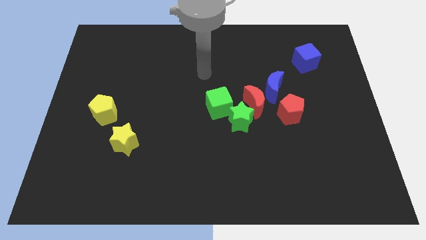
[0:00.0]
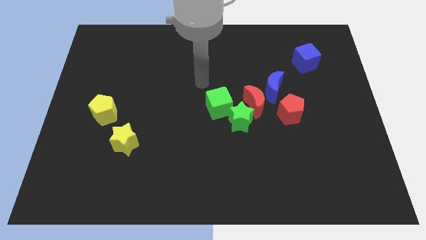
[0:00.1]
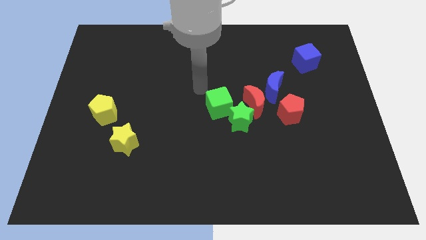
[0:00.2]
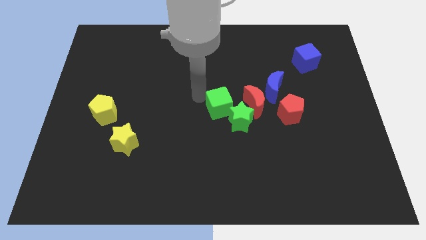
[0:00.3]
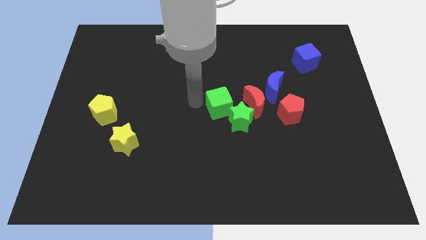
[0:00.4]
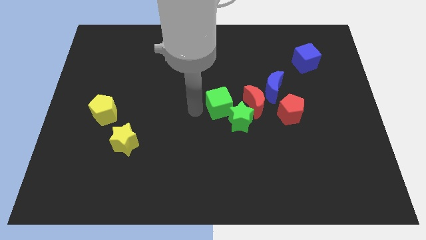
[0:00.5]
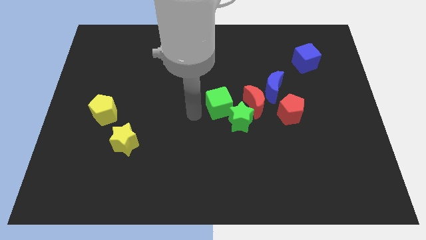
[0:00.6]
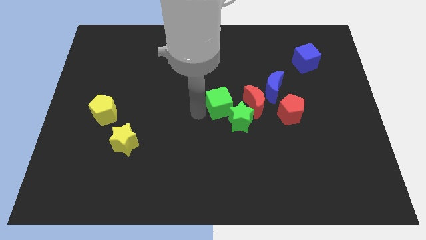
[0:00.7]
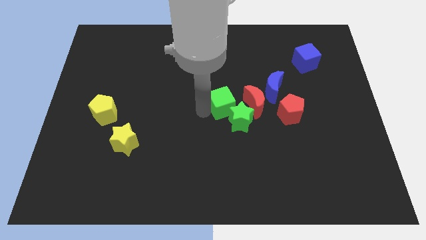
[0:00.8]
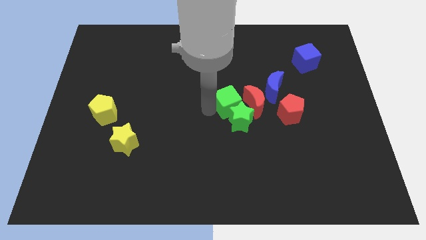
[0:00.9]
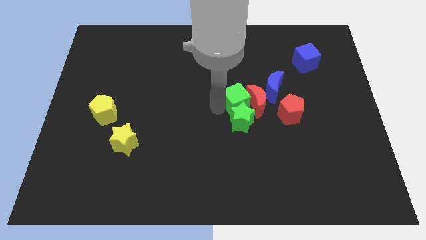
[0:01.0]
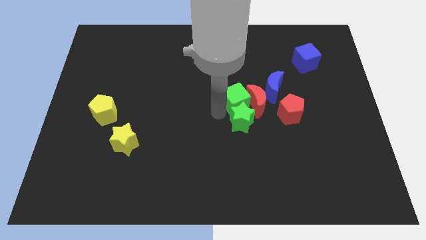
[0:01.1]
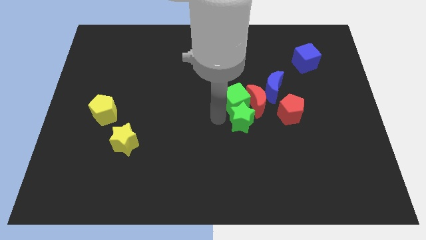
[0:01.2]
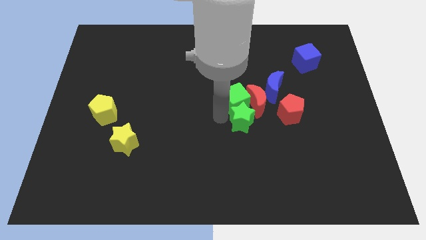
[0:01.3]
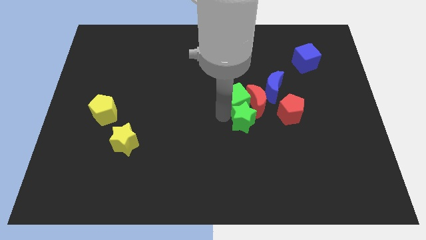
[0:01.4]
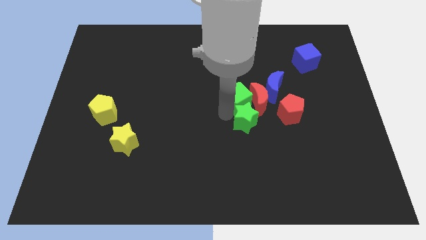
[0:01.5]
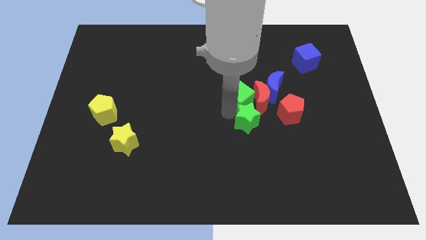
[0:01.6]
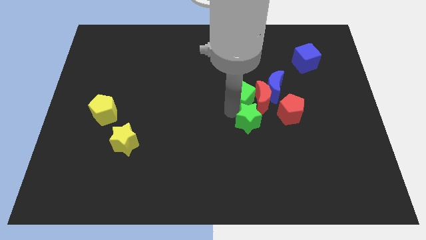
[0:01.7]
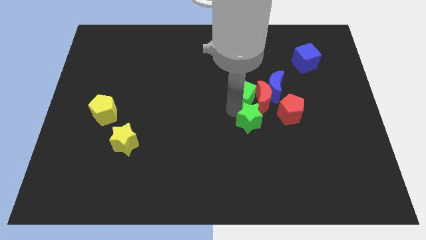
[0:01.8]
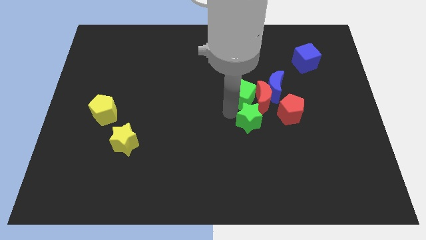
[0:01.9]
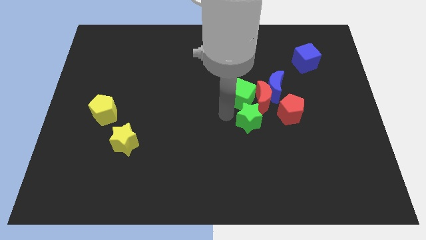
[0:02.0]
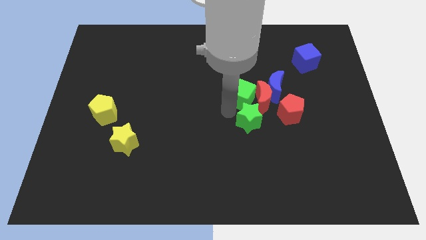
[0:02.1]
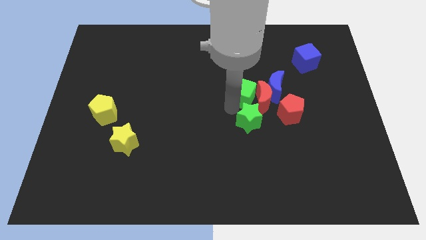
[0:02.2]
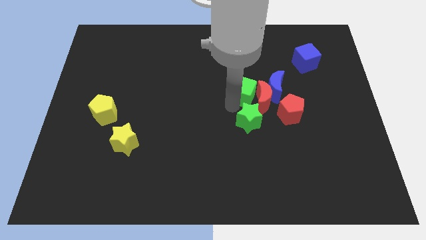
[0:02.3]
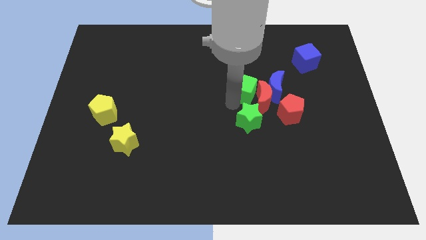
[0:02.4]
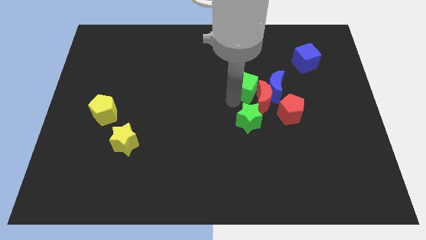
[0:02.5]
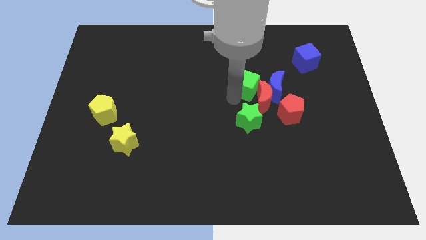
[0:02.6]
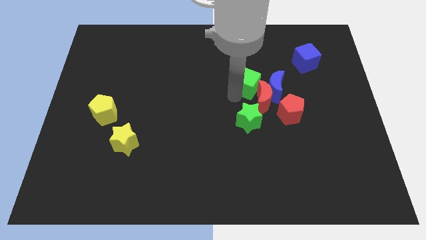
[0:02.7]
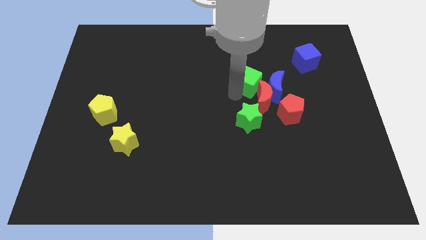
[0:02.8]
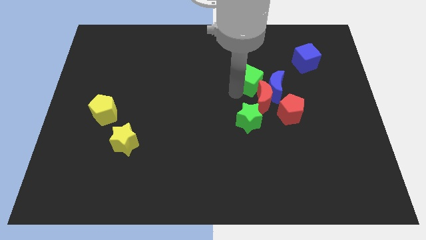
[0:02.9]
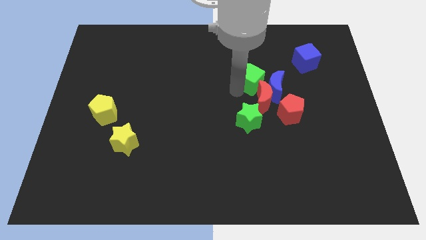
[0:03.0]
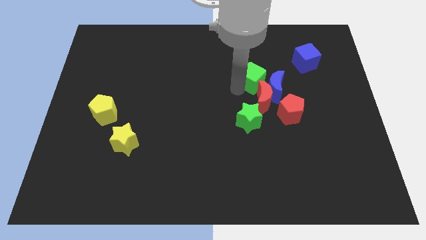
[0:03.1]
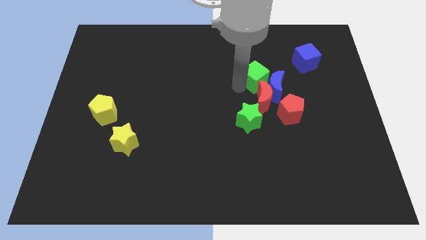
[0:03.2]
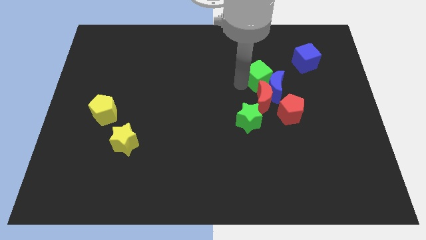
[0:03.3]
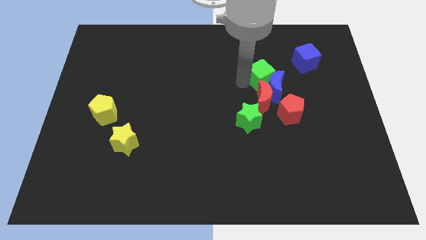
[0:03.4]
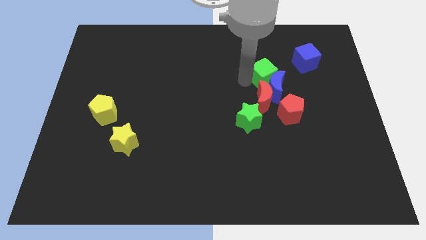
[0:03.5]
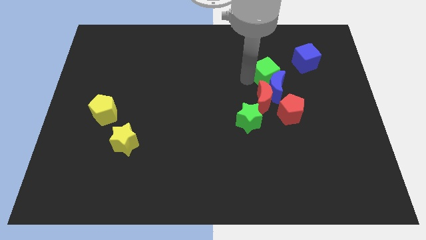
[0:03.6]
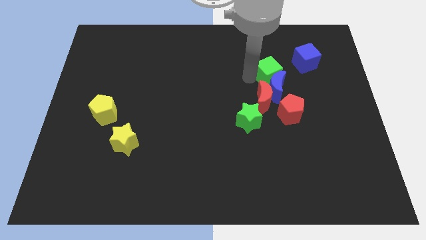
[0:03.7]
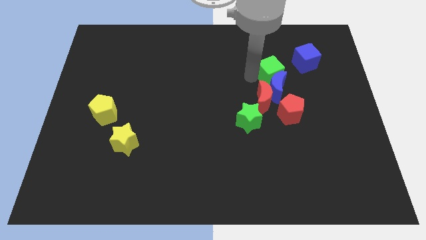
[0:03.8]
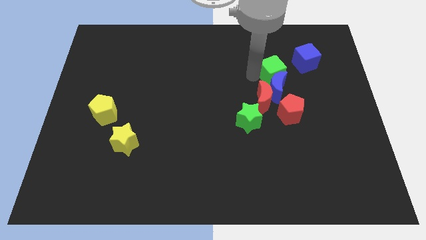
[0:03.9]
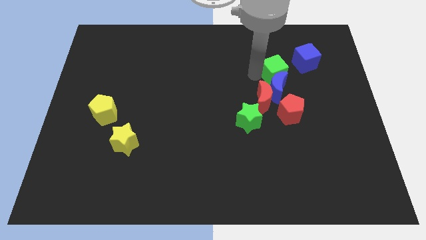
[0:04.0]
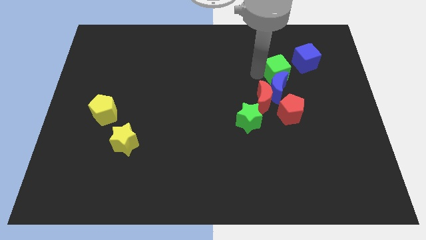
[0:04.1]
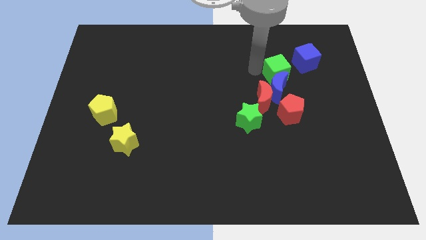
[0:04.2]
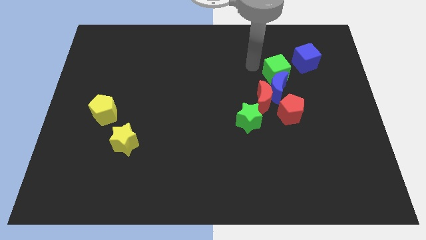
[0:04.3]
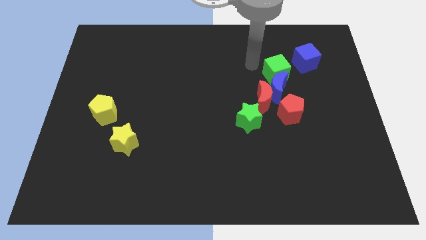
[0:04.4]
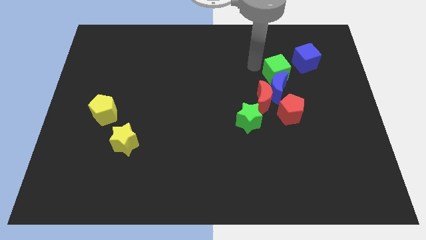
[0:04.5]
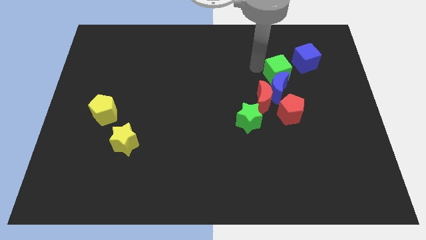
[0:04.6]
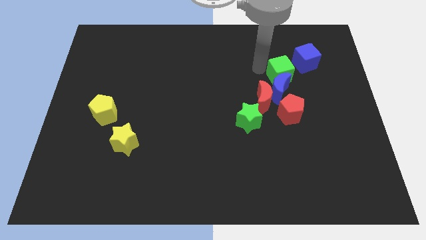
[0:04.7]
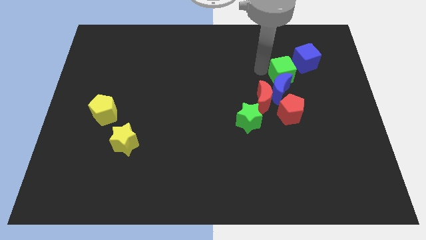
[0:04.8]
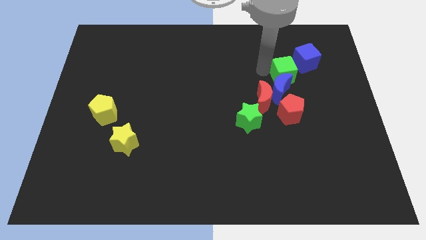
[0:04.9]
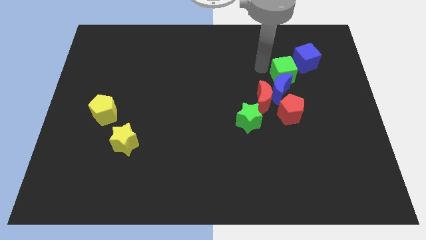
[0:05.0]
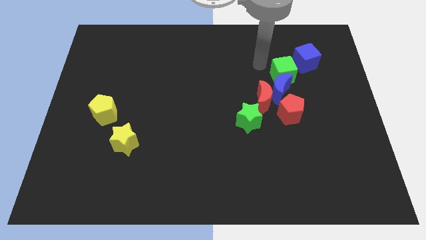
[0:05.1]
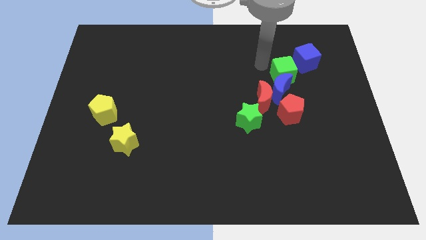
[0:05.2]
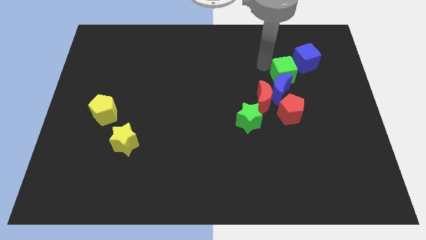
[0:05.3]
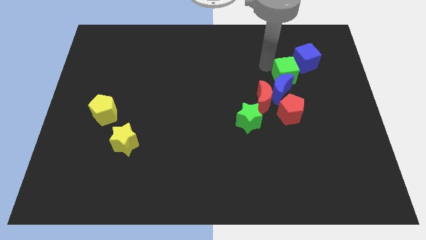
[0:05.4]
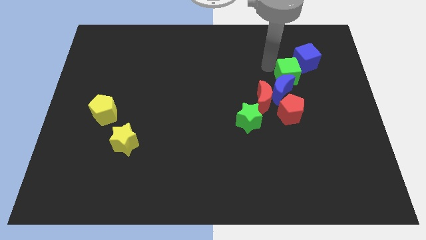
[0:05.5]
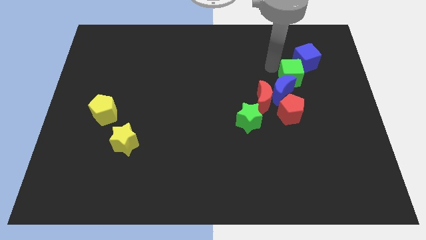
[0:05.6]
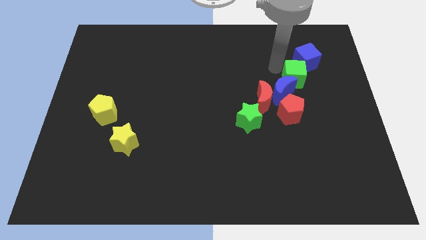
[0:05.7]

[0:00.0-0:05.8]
slide the green cube to the right side of the blue moon

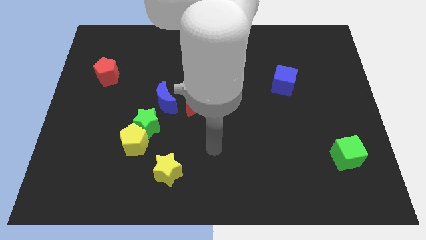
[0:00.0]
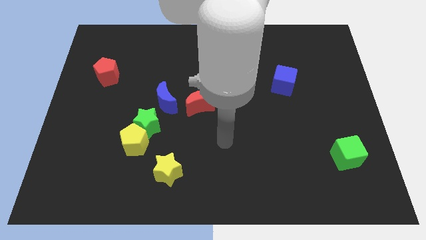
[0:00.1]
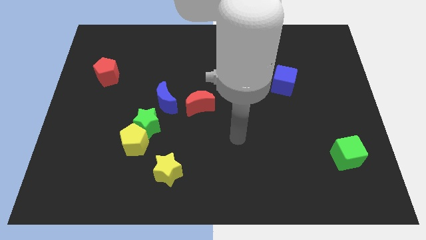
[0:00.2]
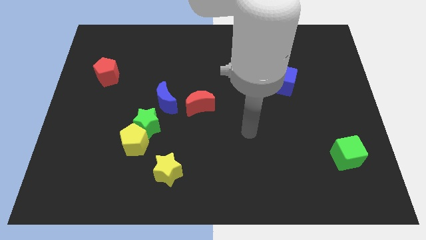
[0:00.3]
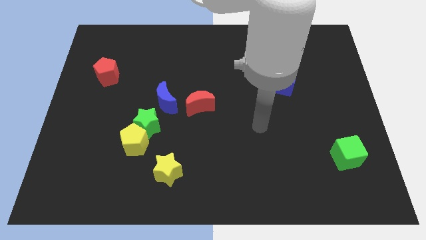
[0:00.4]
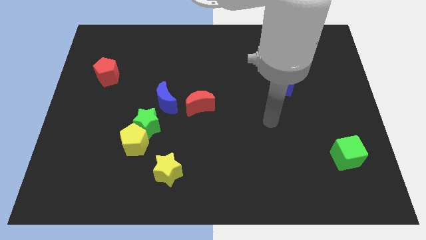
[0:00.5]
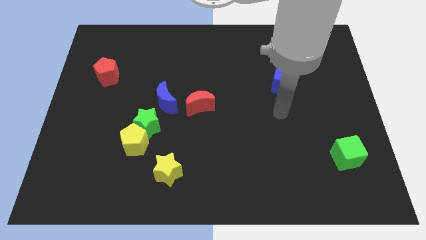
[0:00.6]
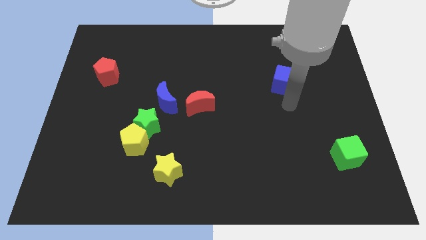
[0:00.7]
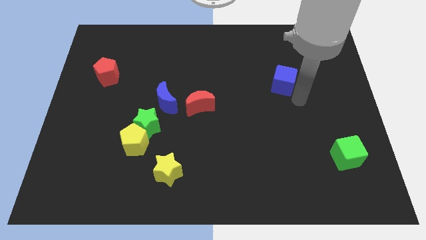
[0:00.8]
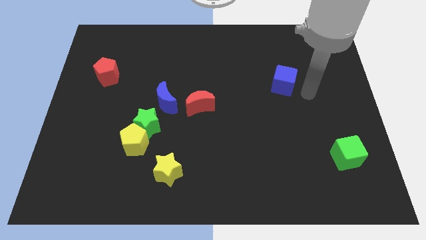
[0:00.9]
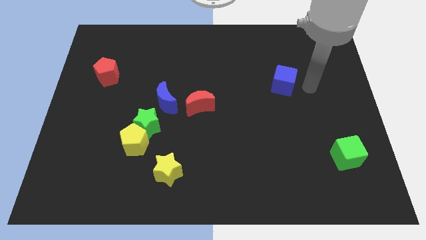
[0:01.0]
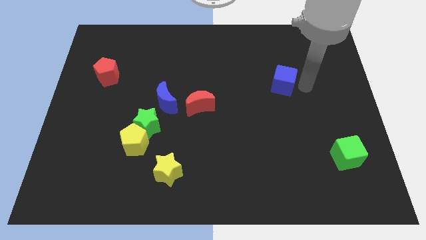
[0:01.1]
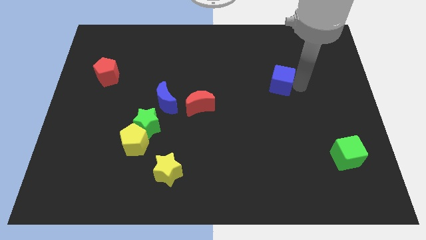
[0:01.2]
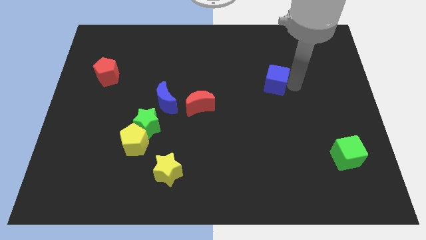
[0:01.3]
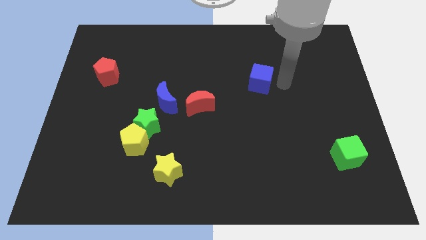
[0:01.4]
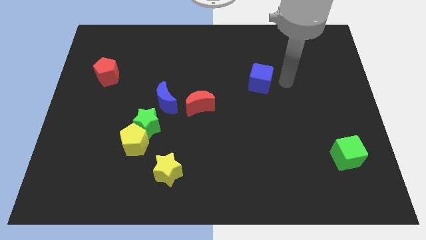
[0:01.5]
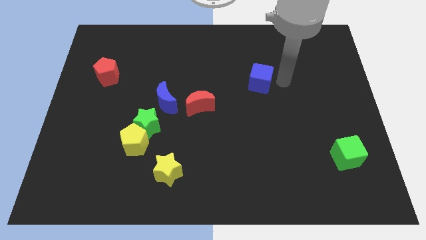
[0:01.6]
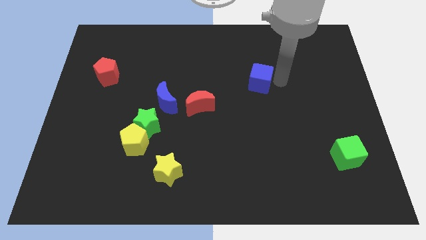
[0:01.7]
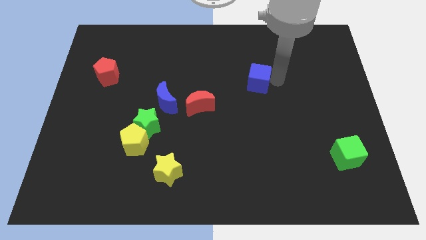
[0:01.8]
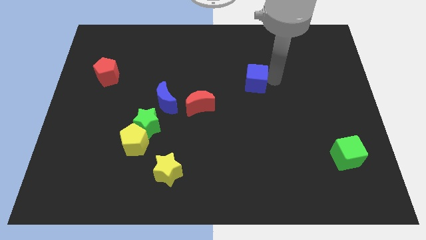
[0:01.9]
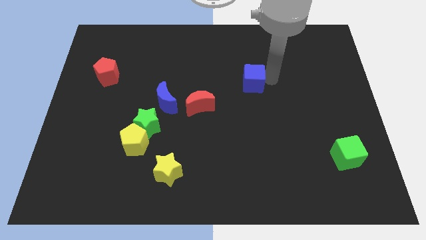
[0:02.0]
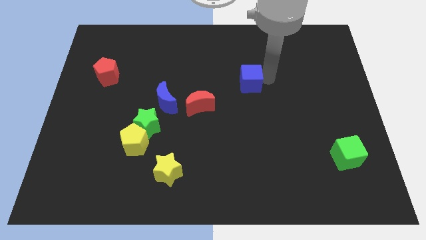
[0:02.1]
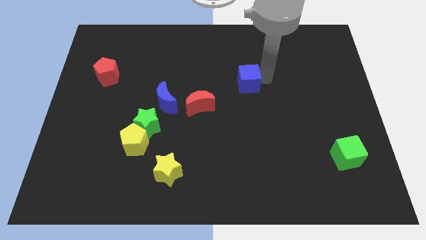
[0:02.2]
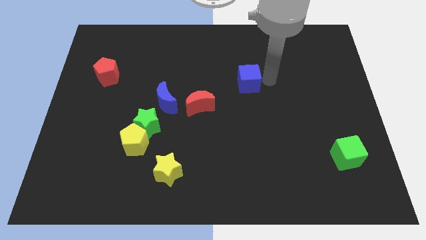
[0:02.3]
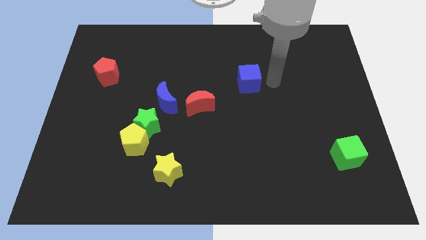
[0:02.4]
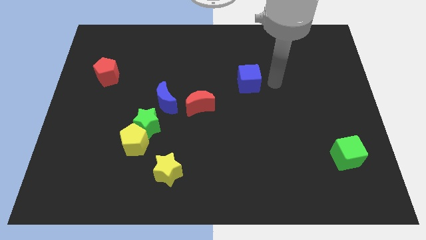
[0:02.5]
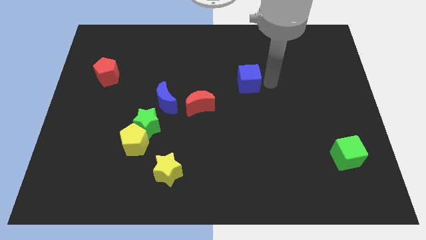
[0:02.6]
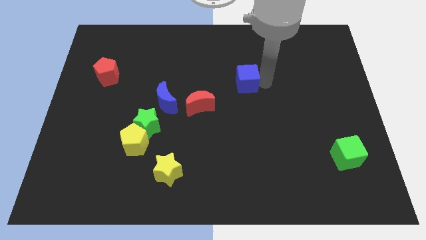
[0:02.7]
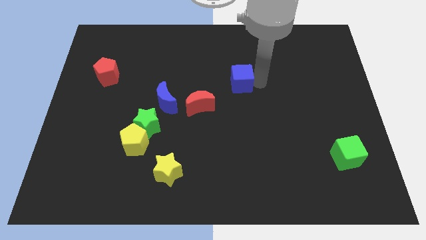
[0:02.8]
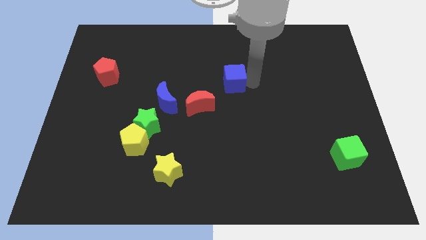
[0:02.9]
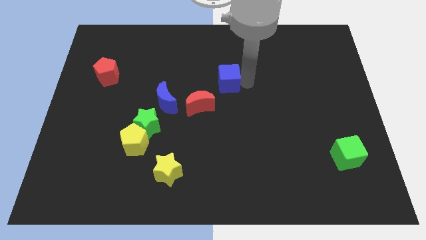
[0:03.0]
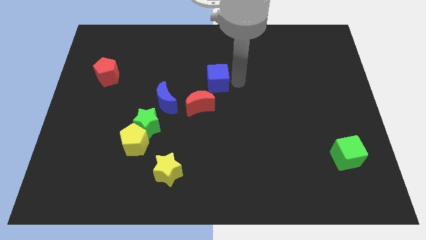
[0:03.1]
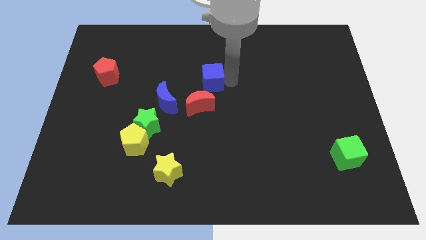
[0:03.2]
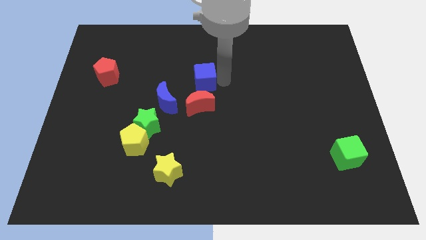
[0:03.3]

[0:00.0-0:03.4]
slide the blue cube to the top right of the blue moon
